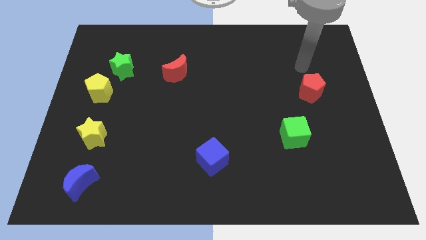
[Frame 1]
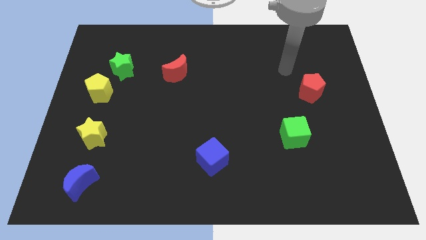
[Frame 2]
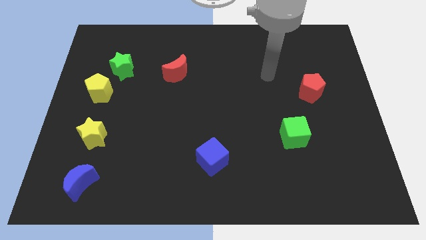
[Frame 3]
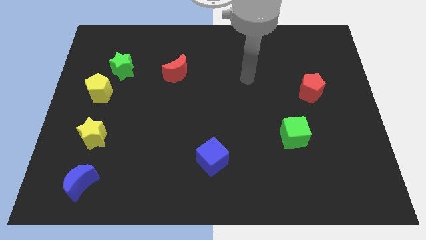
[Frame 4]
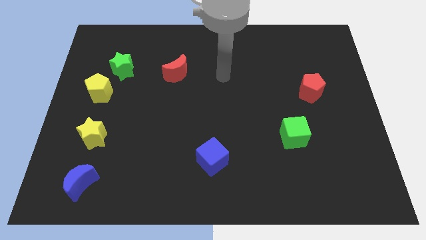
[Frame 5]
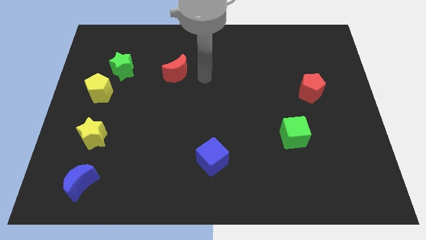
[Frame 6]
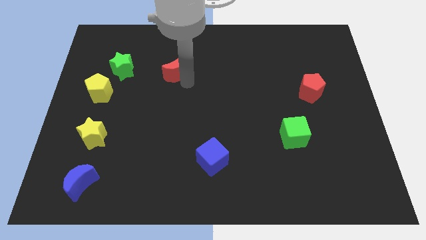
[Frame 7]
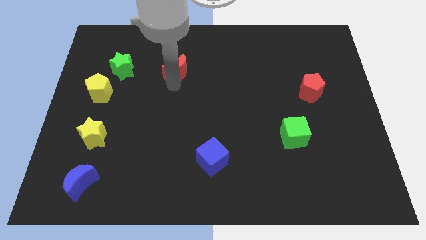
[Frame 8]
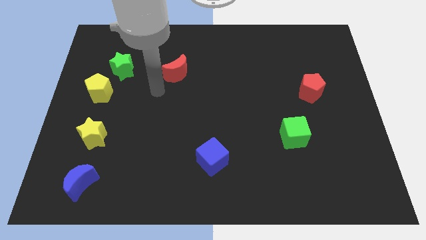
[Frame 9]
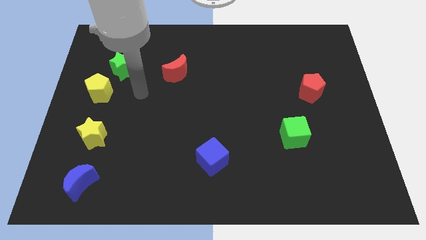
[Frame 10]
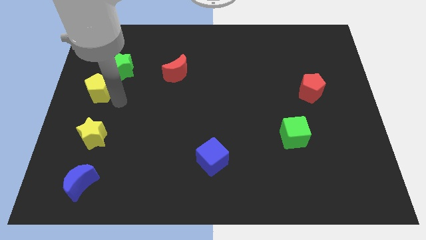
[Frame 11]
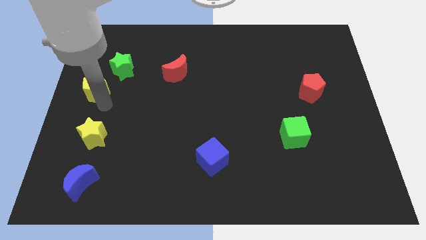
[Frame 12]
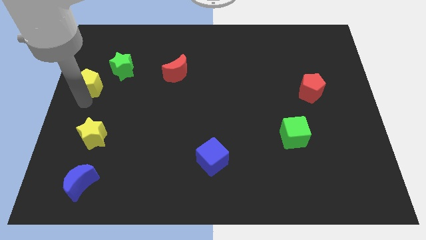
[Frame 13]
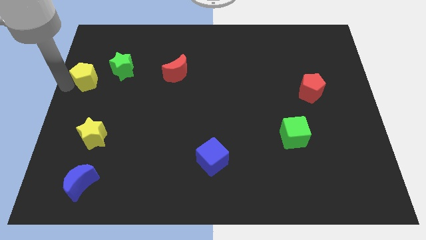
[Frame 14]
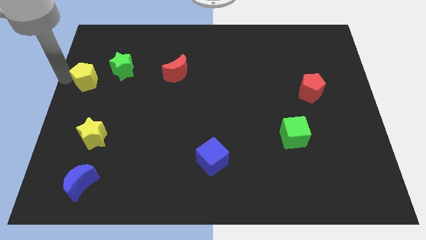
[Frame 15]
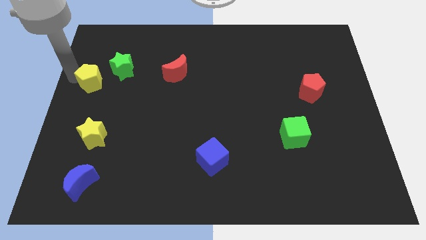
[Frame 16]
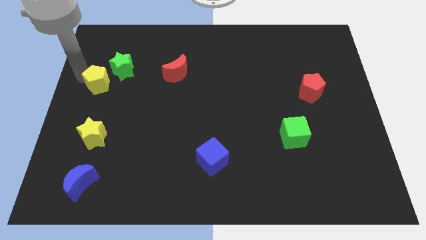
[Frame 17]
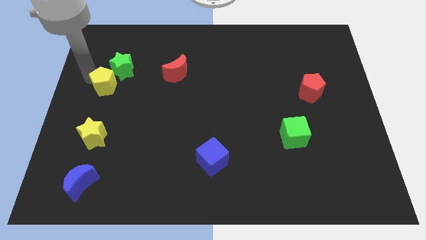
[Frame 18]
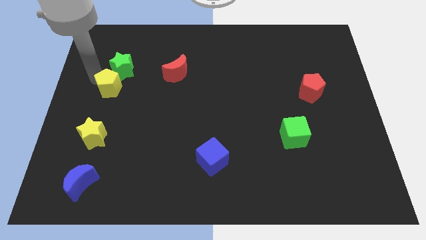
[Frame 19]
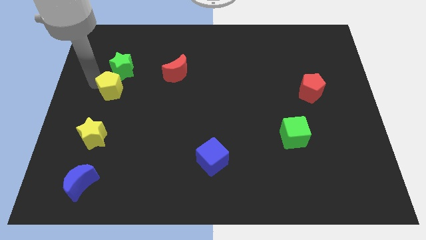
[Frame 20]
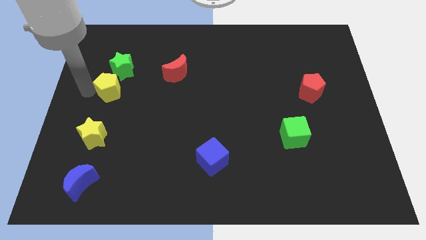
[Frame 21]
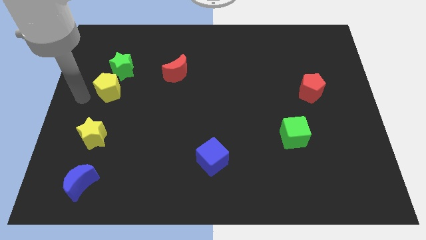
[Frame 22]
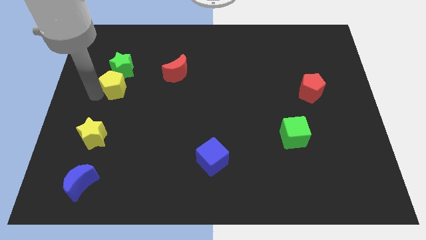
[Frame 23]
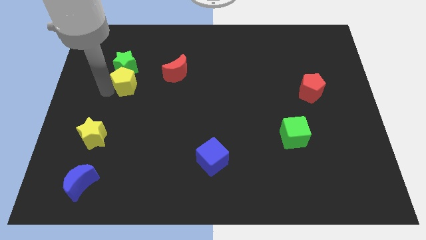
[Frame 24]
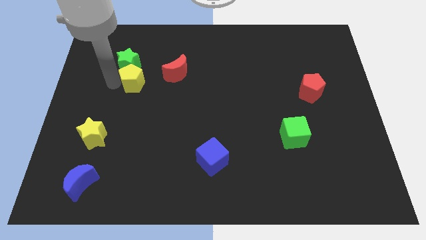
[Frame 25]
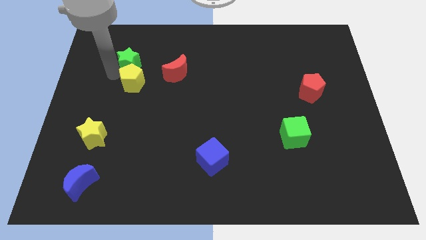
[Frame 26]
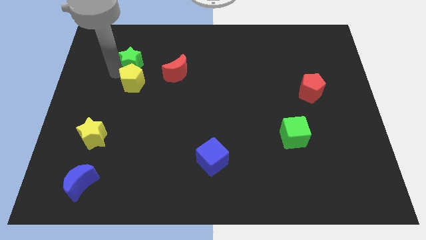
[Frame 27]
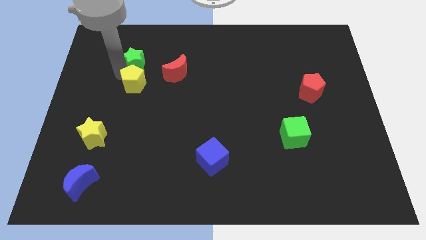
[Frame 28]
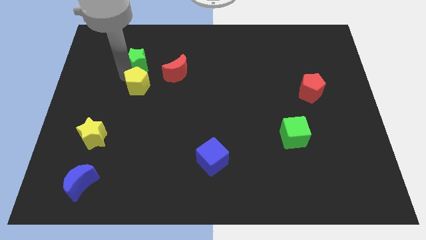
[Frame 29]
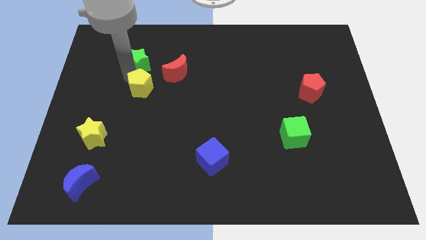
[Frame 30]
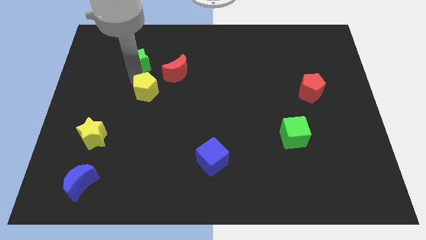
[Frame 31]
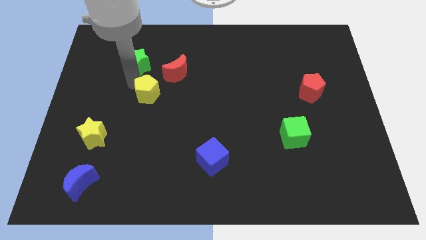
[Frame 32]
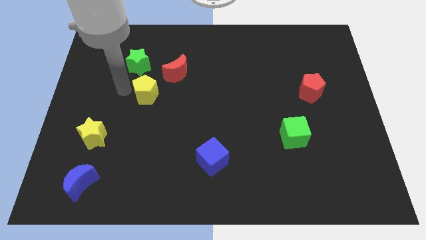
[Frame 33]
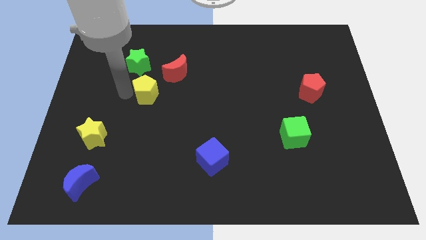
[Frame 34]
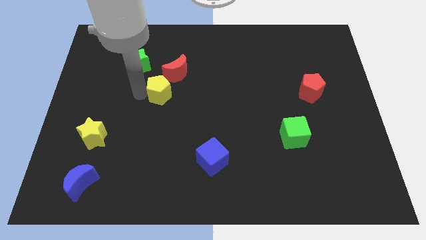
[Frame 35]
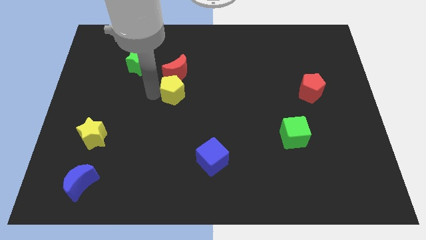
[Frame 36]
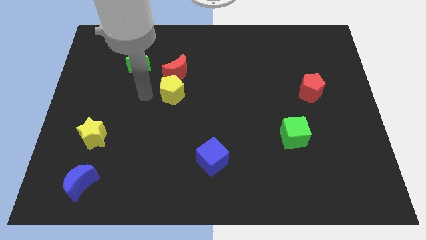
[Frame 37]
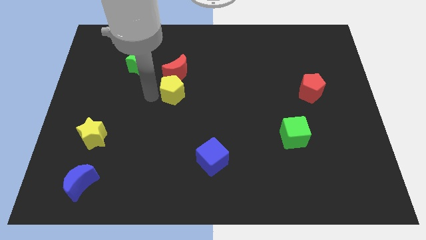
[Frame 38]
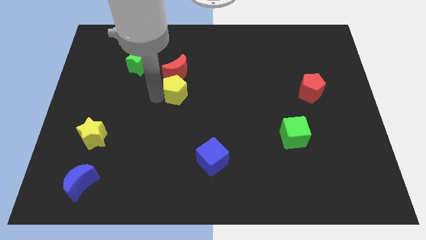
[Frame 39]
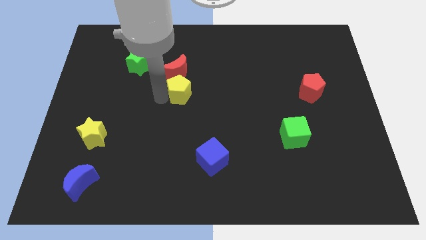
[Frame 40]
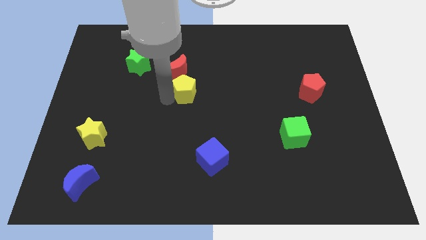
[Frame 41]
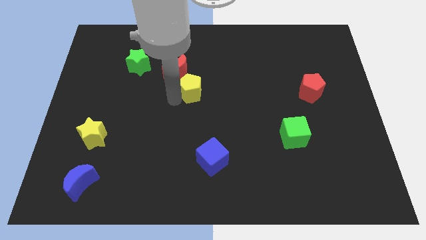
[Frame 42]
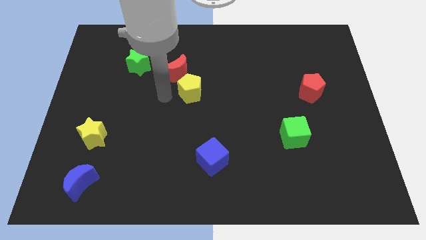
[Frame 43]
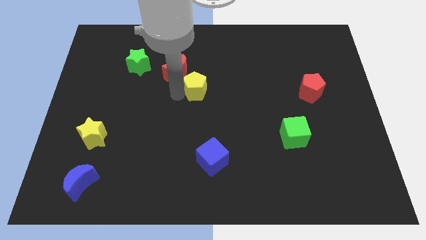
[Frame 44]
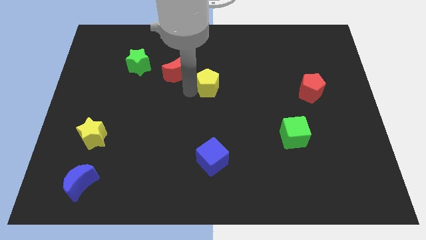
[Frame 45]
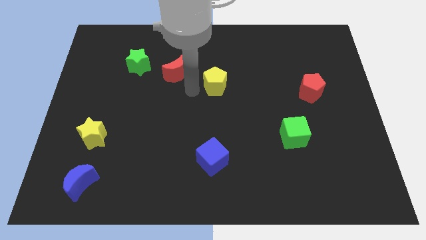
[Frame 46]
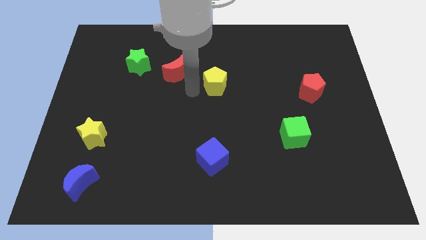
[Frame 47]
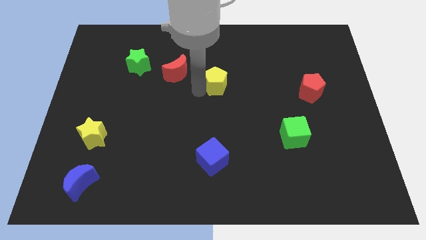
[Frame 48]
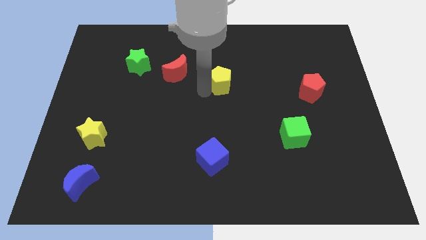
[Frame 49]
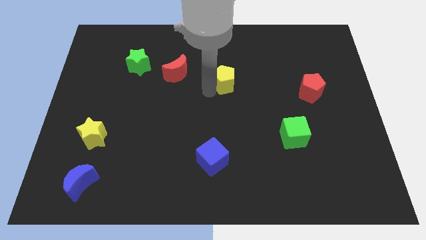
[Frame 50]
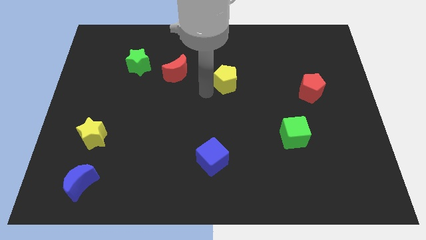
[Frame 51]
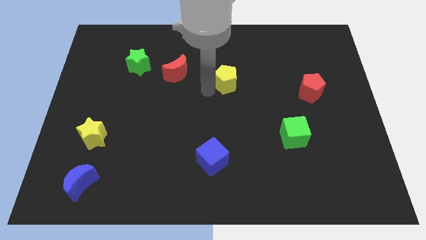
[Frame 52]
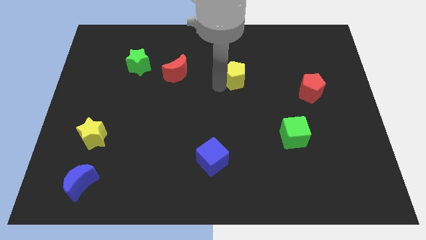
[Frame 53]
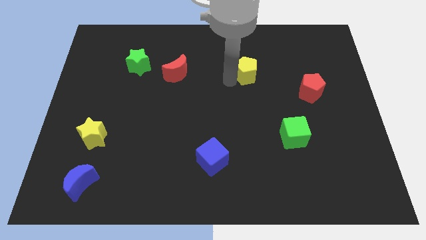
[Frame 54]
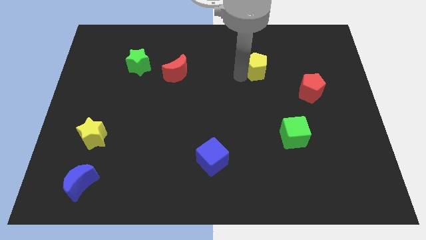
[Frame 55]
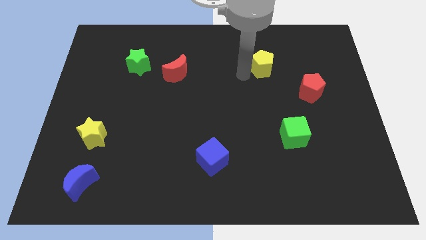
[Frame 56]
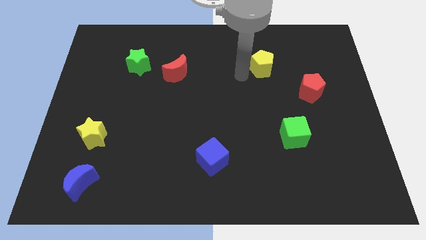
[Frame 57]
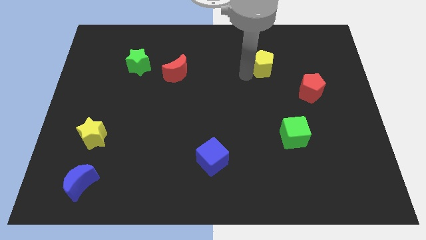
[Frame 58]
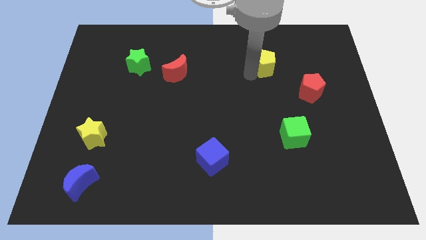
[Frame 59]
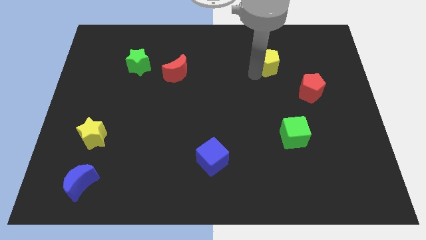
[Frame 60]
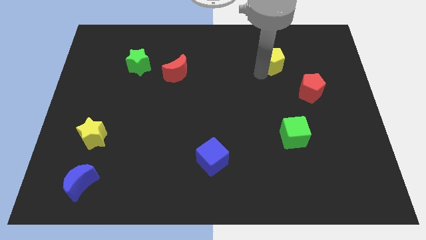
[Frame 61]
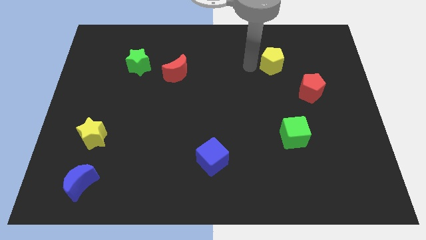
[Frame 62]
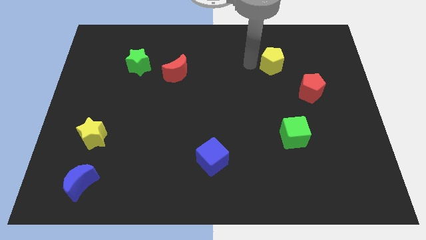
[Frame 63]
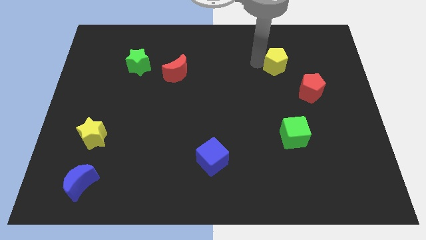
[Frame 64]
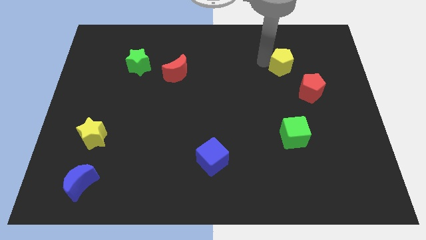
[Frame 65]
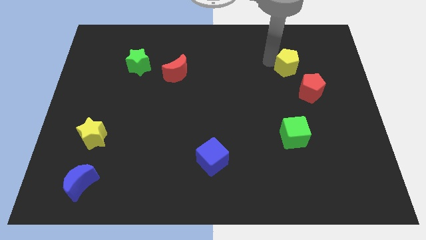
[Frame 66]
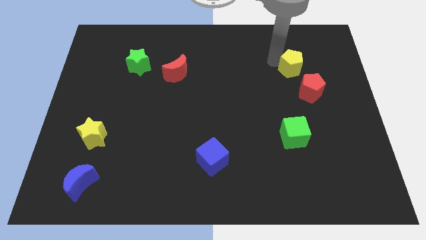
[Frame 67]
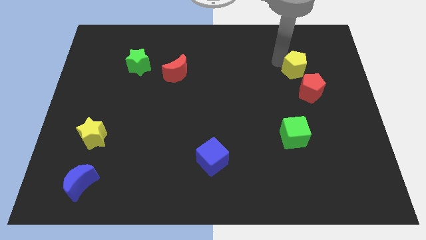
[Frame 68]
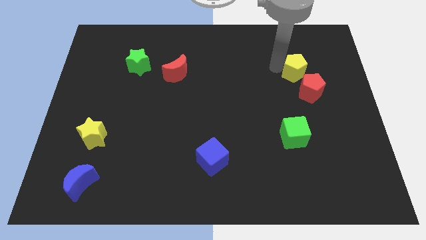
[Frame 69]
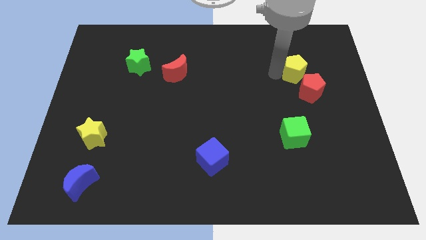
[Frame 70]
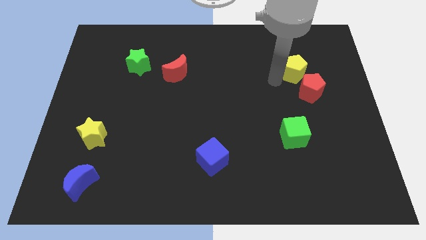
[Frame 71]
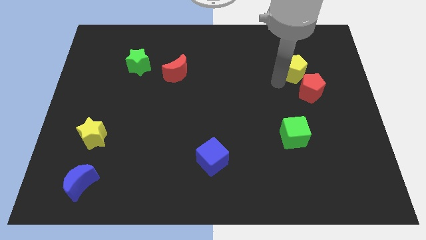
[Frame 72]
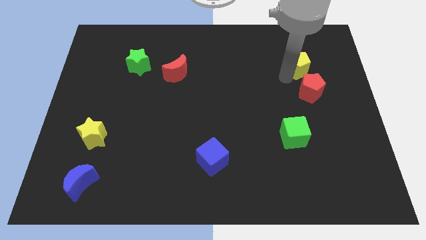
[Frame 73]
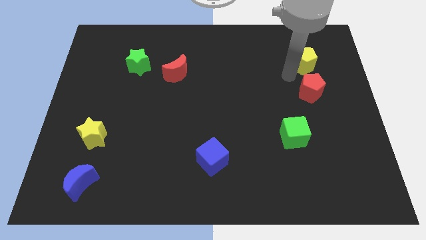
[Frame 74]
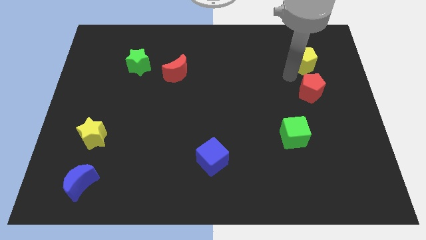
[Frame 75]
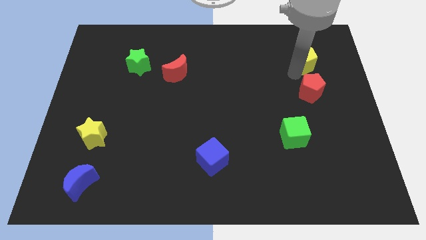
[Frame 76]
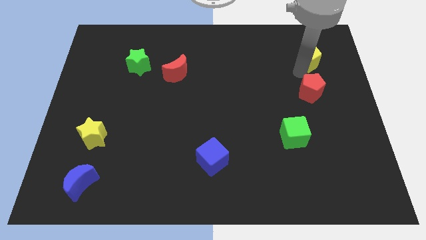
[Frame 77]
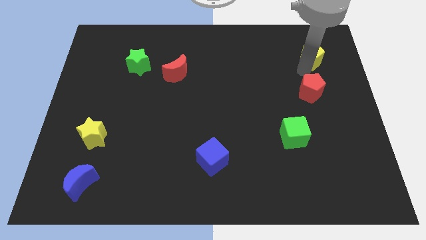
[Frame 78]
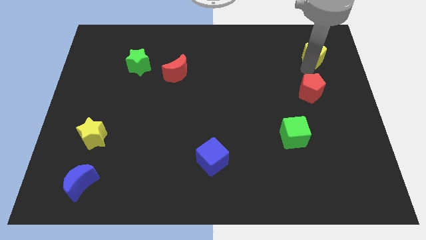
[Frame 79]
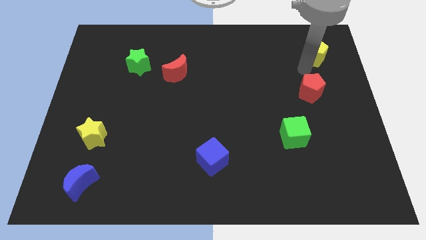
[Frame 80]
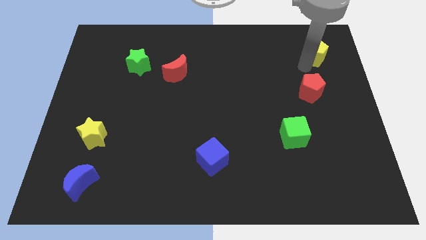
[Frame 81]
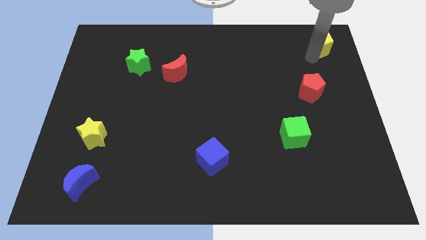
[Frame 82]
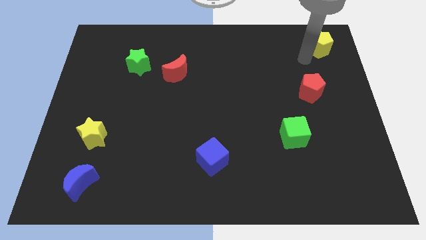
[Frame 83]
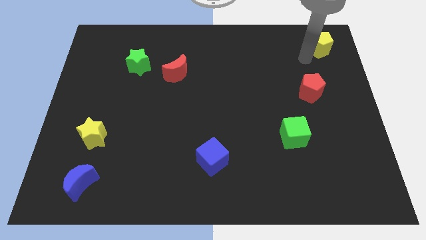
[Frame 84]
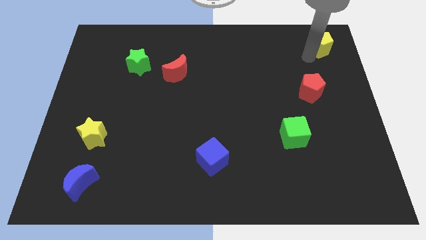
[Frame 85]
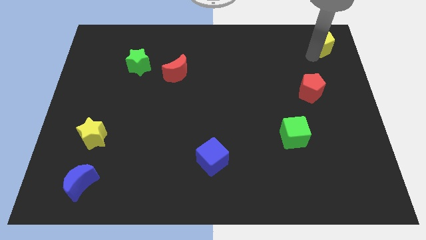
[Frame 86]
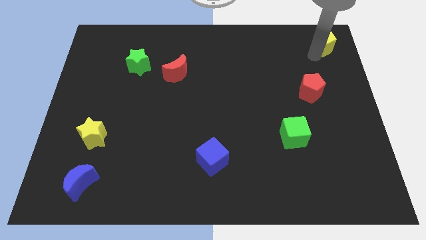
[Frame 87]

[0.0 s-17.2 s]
slide the yellow pentagon to the top right
